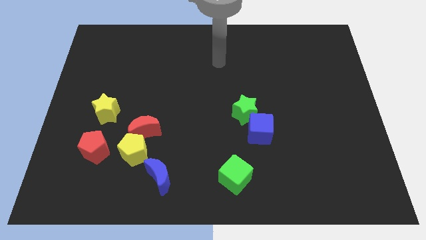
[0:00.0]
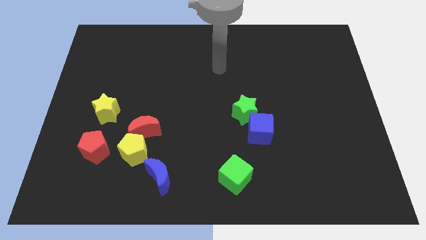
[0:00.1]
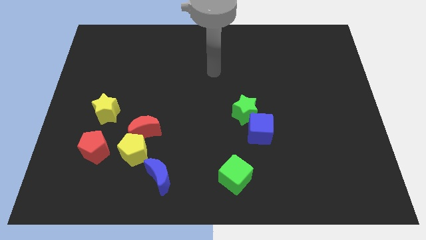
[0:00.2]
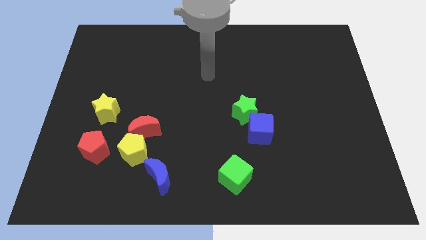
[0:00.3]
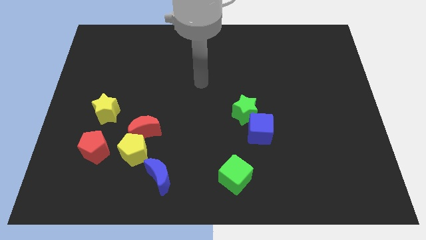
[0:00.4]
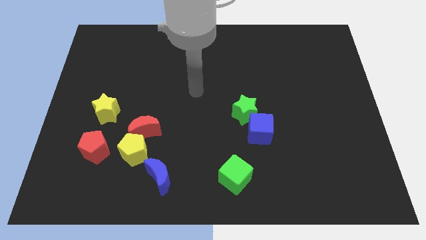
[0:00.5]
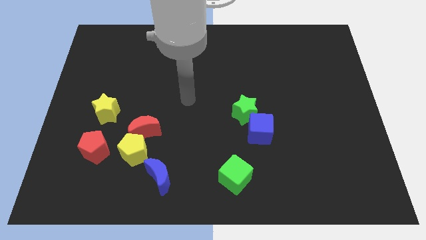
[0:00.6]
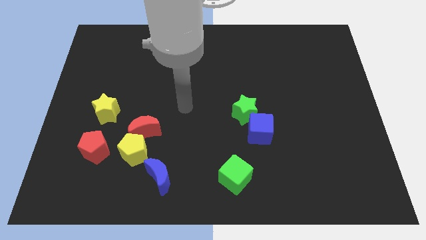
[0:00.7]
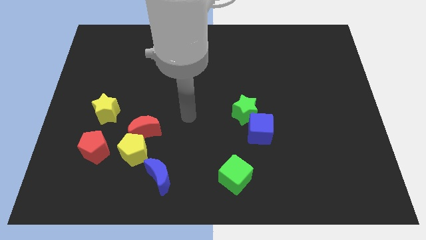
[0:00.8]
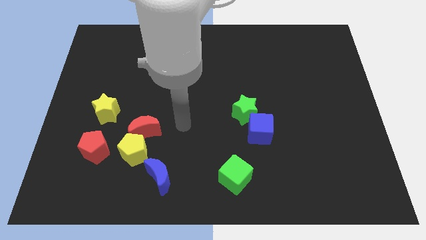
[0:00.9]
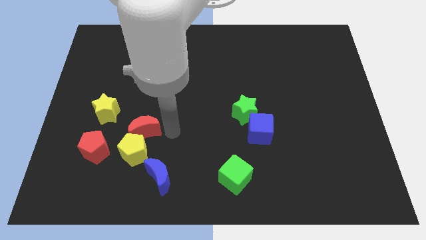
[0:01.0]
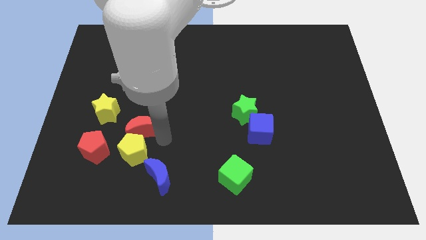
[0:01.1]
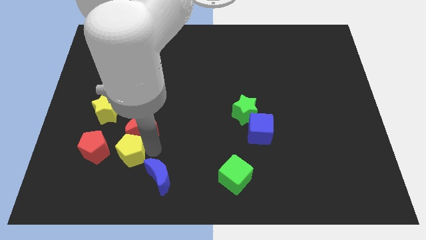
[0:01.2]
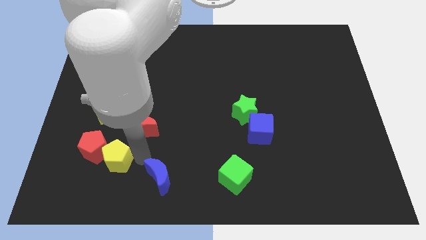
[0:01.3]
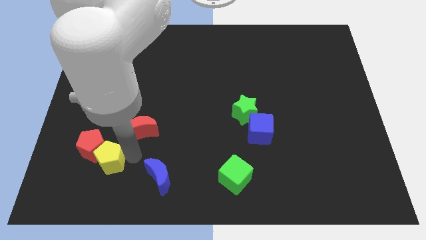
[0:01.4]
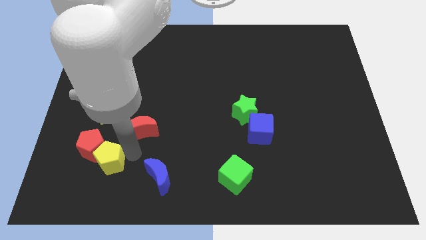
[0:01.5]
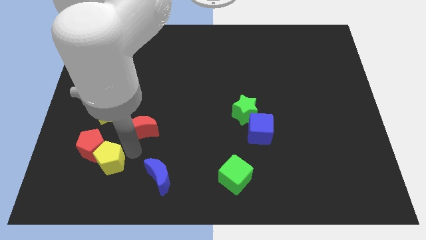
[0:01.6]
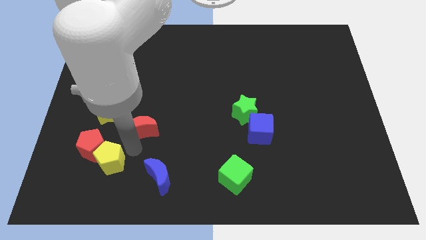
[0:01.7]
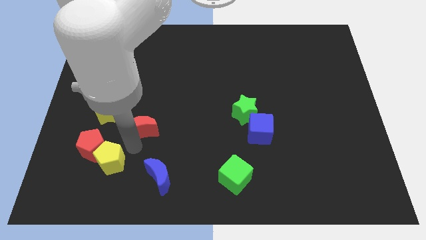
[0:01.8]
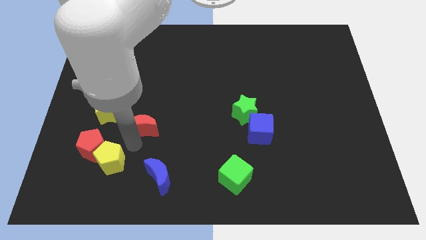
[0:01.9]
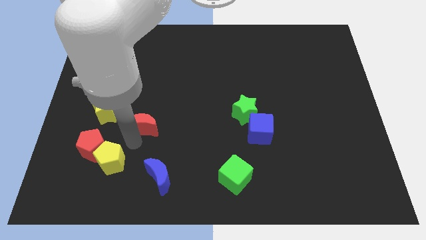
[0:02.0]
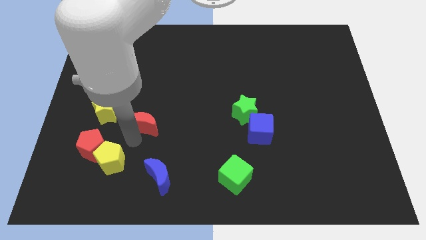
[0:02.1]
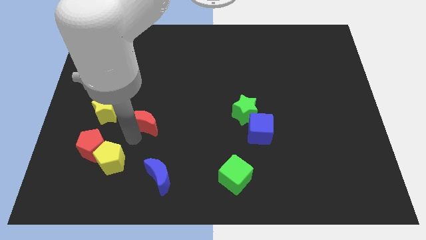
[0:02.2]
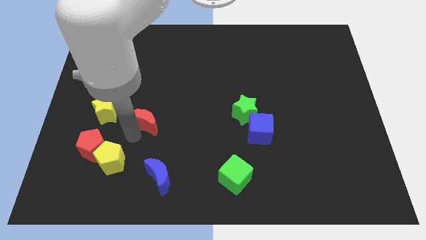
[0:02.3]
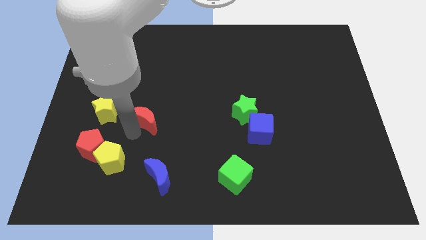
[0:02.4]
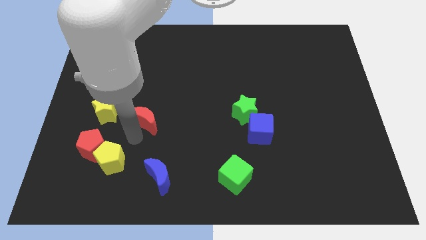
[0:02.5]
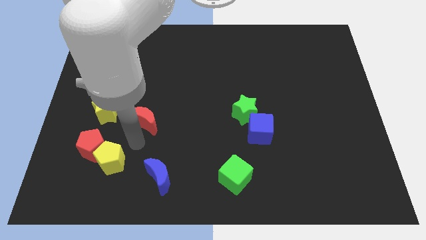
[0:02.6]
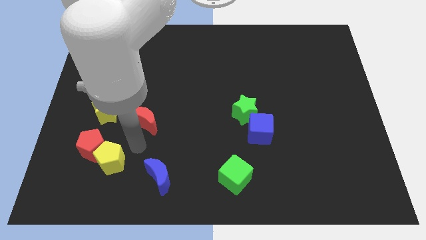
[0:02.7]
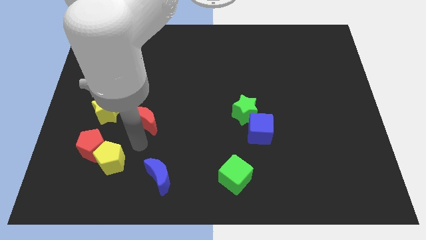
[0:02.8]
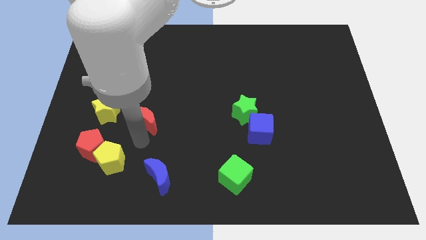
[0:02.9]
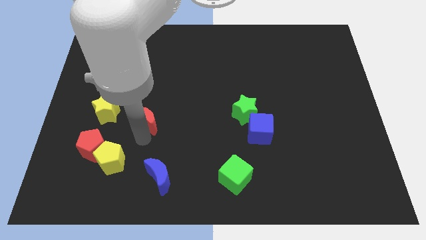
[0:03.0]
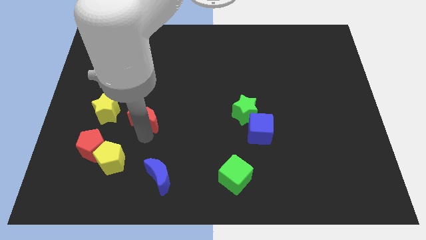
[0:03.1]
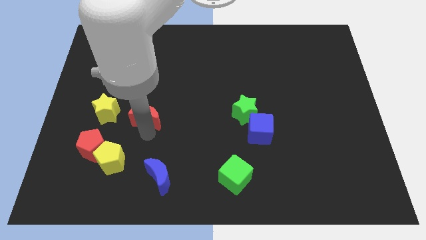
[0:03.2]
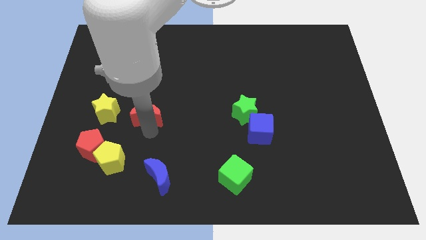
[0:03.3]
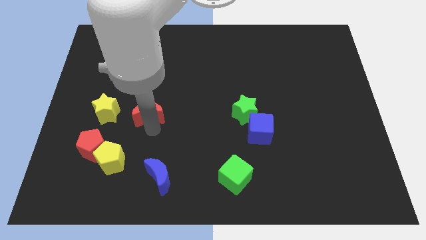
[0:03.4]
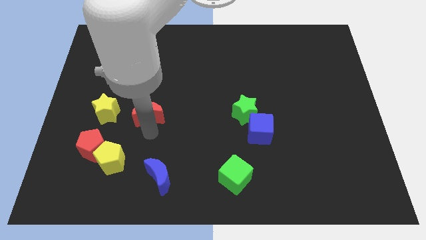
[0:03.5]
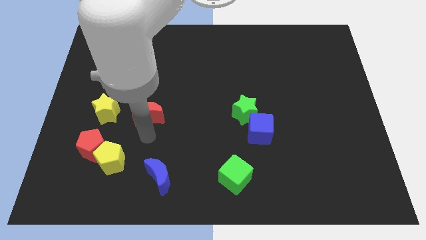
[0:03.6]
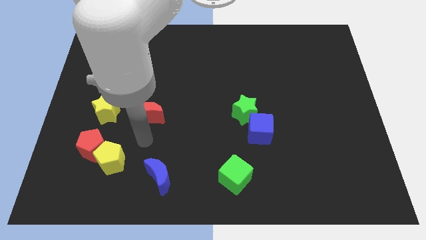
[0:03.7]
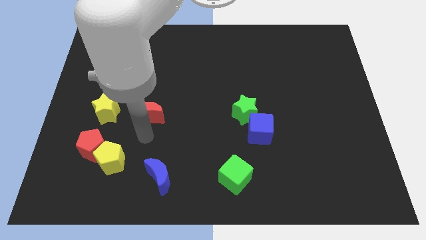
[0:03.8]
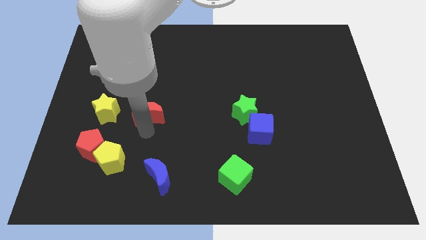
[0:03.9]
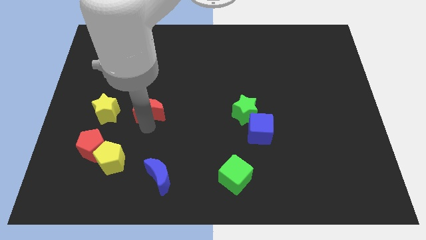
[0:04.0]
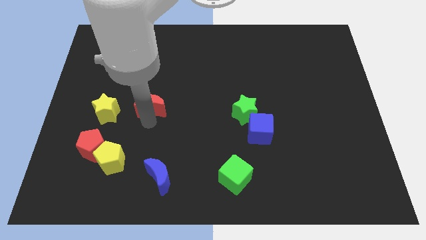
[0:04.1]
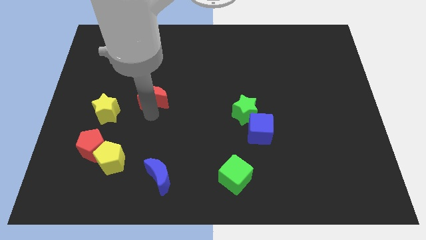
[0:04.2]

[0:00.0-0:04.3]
move the red moon up a little

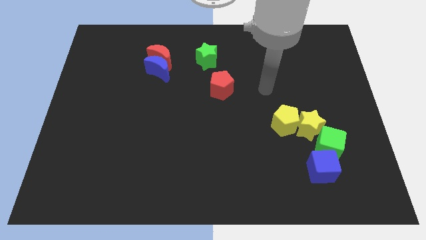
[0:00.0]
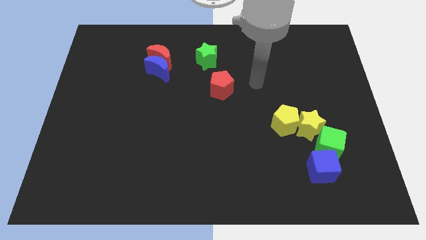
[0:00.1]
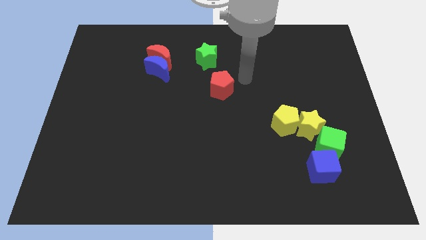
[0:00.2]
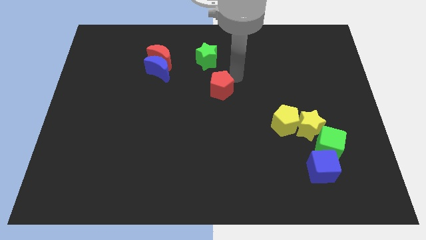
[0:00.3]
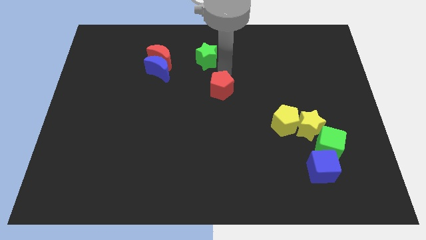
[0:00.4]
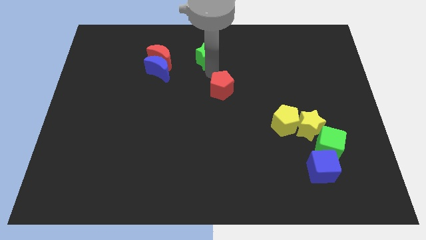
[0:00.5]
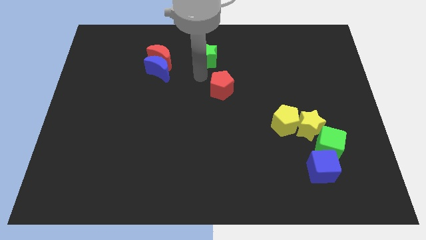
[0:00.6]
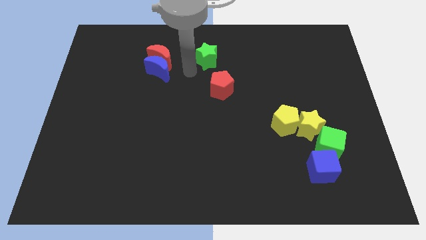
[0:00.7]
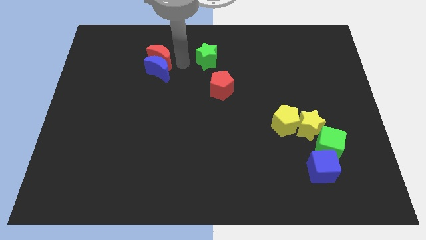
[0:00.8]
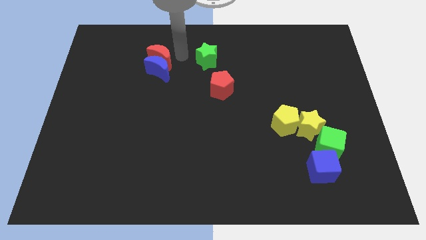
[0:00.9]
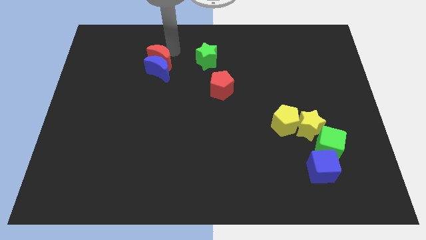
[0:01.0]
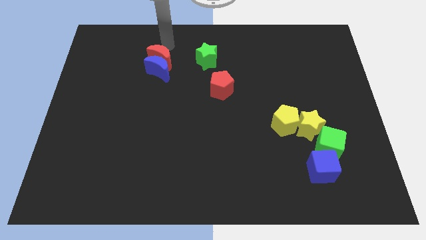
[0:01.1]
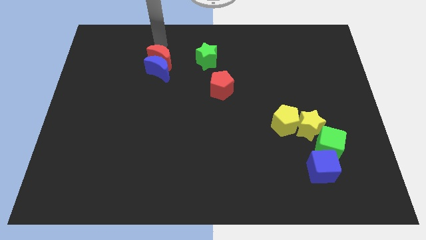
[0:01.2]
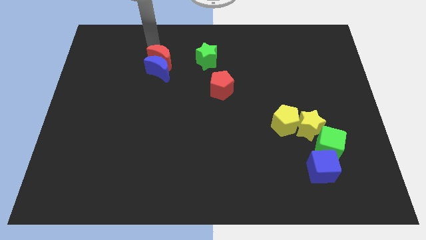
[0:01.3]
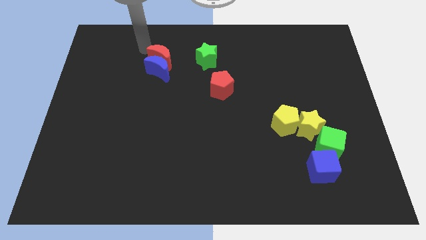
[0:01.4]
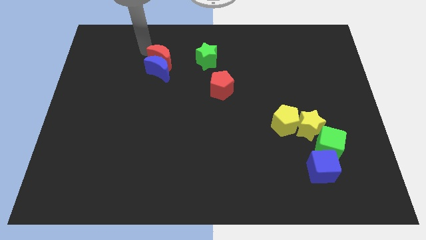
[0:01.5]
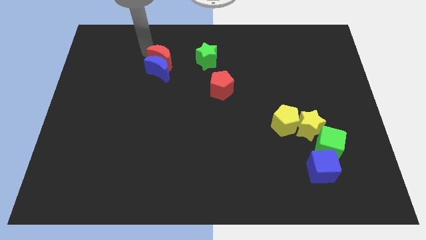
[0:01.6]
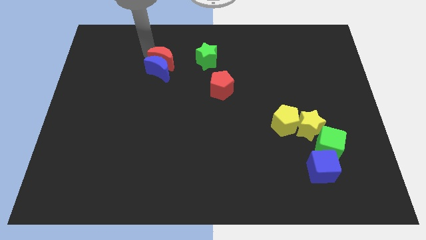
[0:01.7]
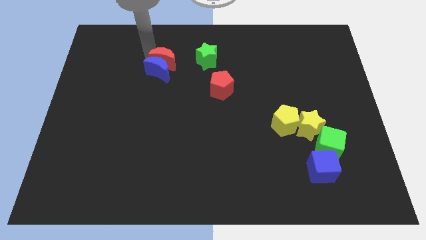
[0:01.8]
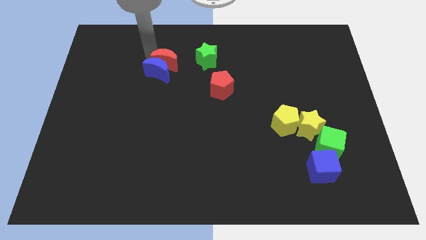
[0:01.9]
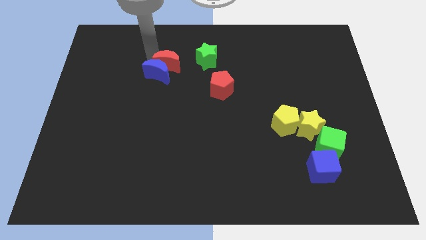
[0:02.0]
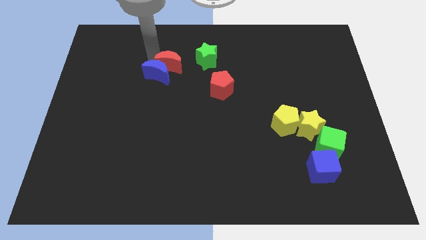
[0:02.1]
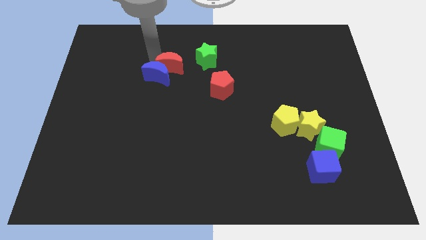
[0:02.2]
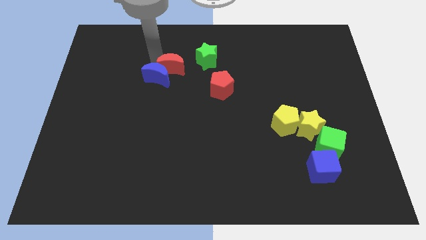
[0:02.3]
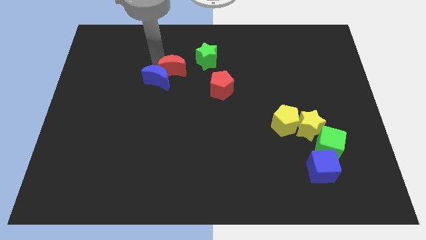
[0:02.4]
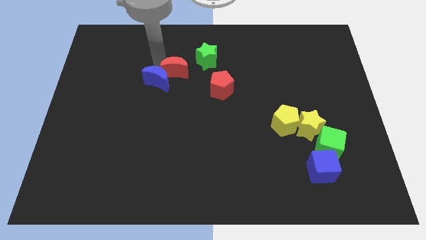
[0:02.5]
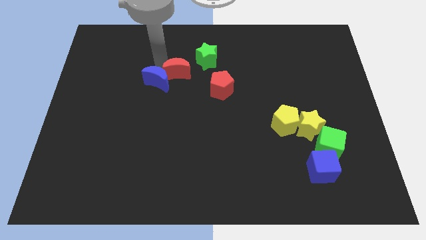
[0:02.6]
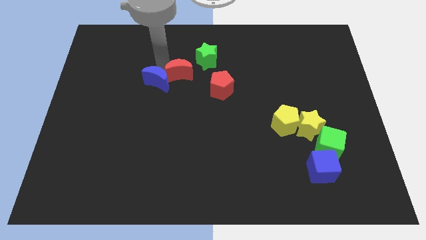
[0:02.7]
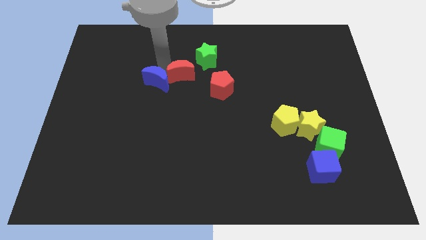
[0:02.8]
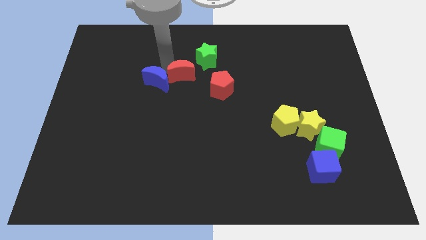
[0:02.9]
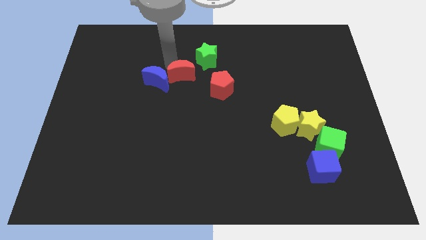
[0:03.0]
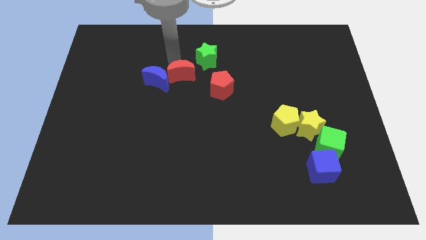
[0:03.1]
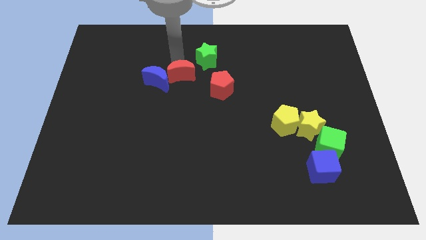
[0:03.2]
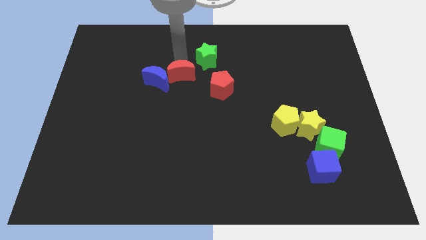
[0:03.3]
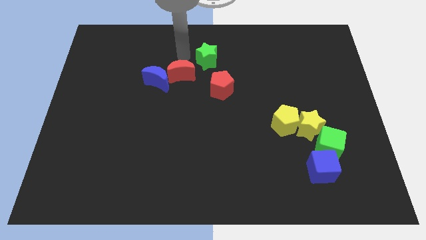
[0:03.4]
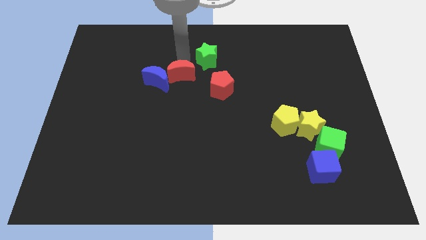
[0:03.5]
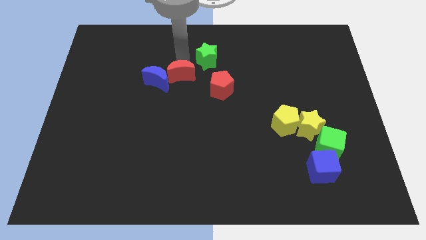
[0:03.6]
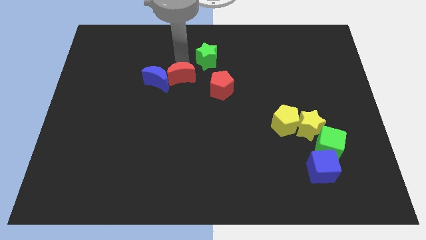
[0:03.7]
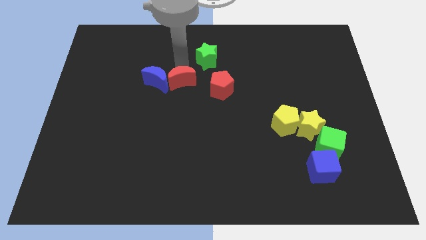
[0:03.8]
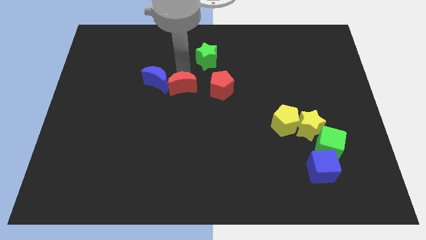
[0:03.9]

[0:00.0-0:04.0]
slide the red moon down a bit
